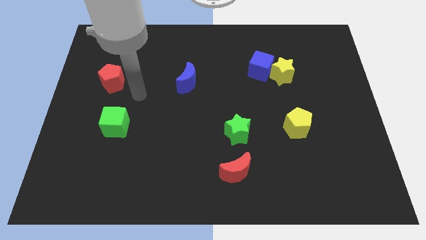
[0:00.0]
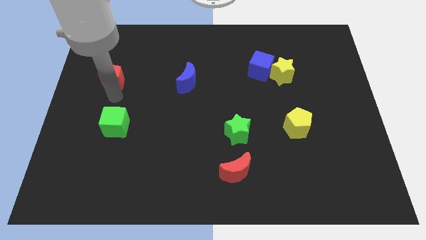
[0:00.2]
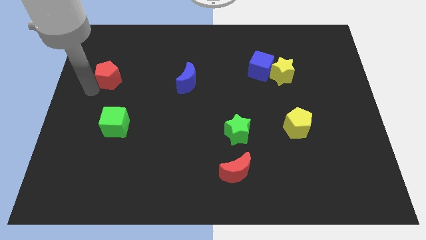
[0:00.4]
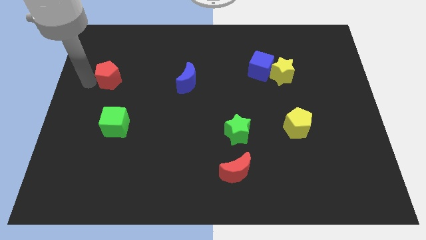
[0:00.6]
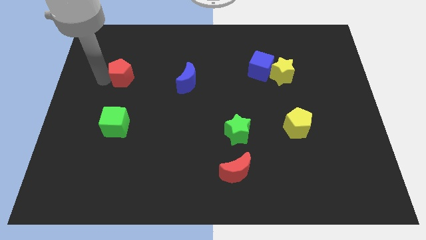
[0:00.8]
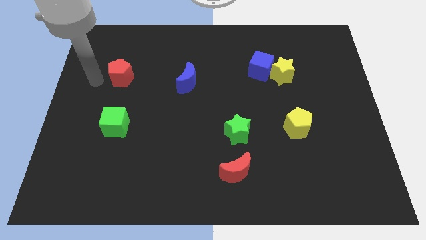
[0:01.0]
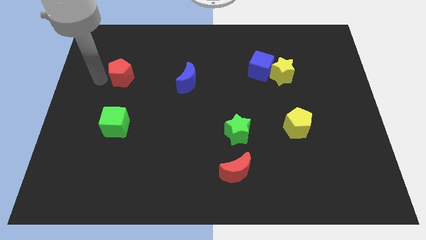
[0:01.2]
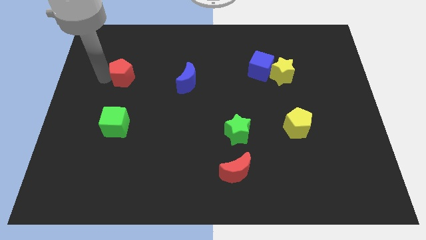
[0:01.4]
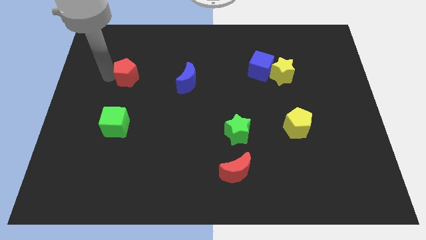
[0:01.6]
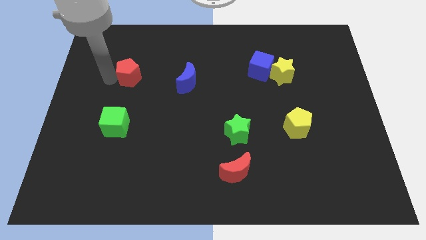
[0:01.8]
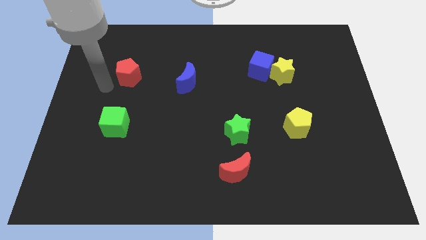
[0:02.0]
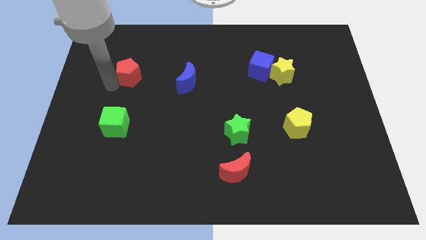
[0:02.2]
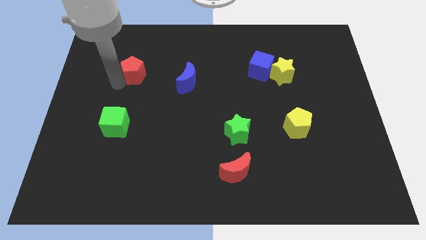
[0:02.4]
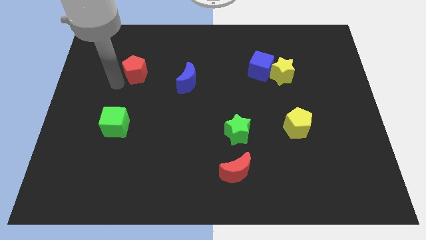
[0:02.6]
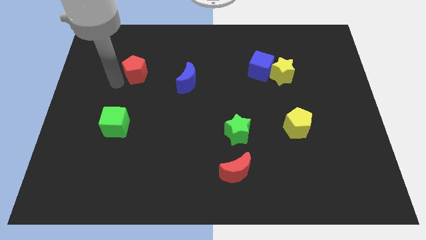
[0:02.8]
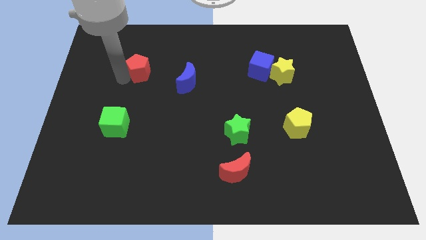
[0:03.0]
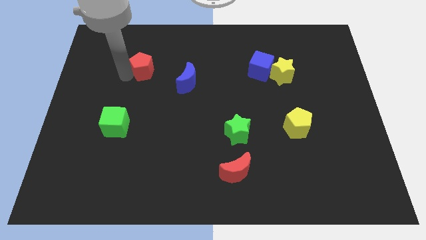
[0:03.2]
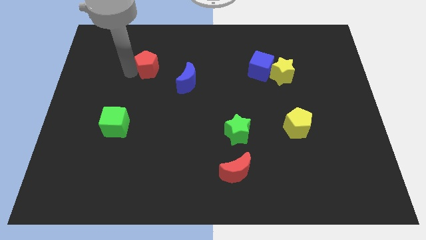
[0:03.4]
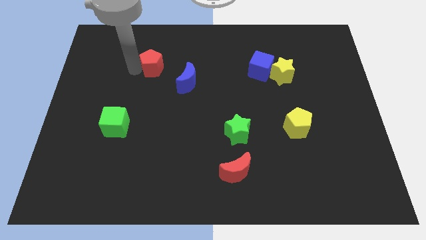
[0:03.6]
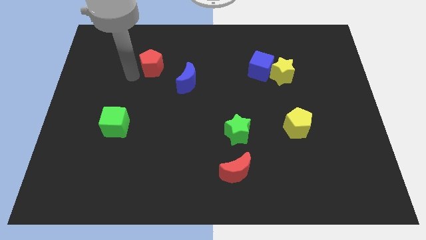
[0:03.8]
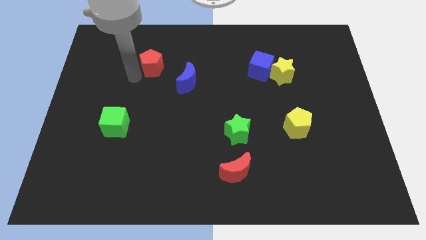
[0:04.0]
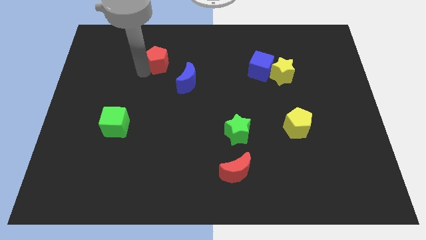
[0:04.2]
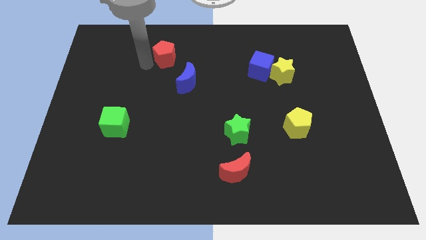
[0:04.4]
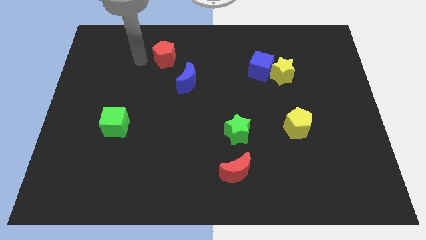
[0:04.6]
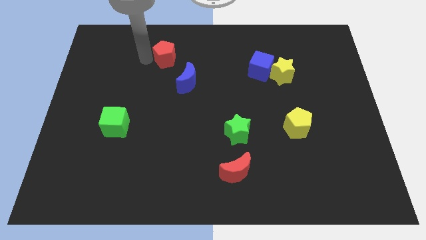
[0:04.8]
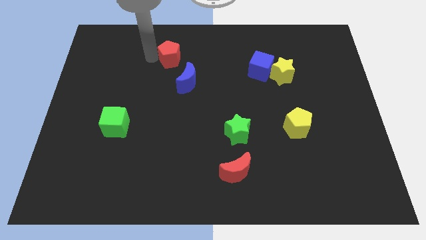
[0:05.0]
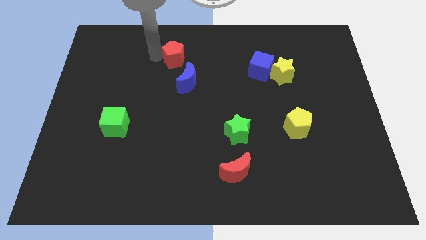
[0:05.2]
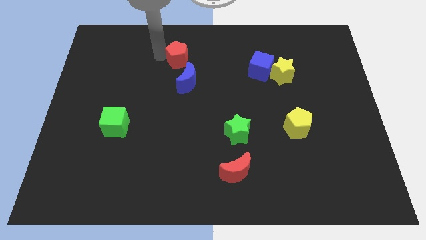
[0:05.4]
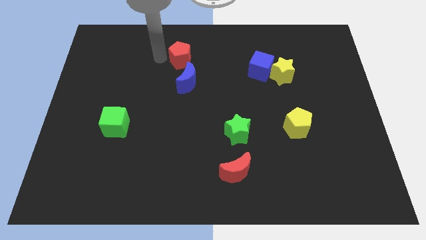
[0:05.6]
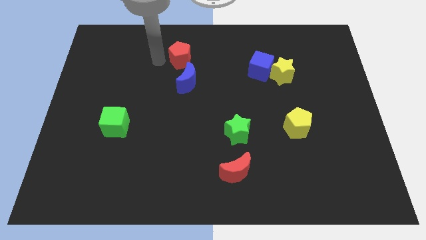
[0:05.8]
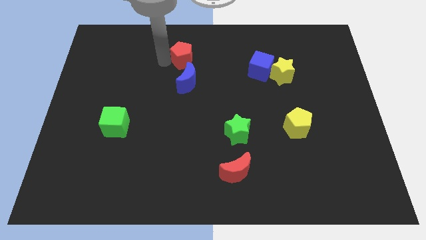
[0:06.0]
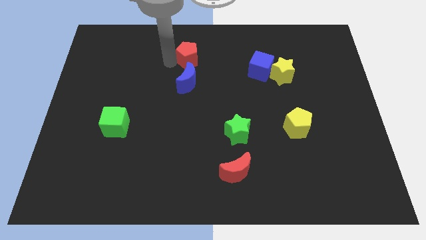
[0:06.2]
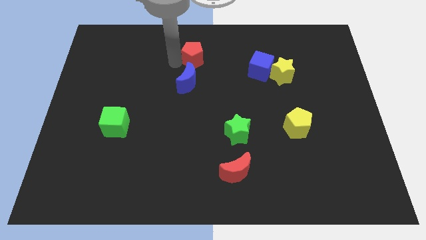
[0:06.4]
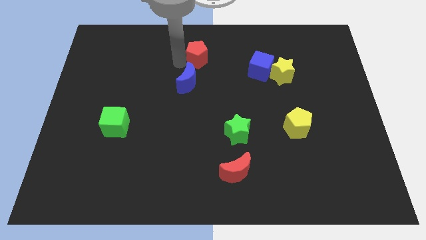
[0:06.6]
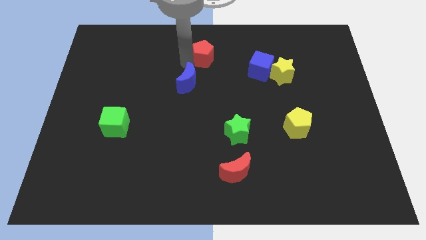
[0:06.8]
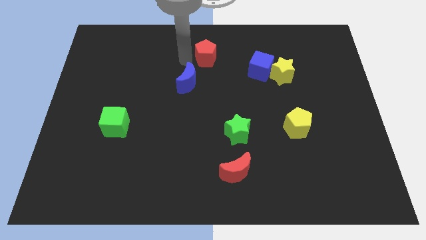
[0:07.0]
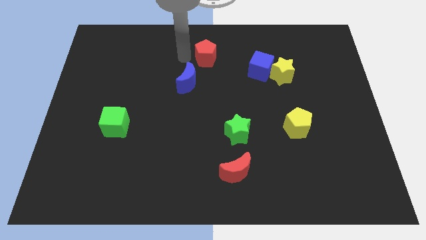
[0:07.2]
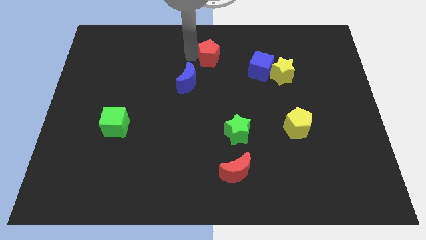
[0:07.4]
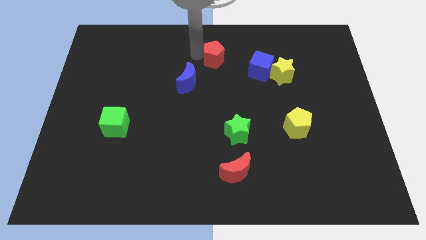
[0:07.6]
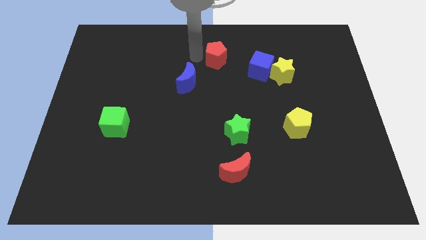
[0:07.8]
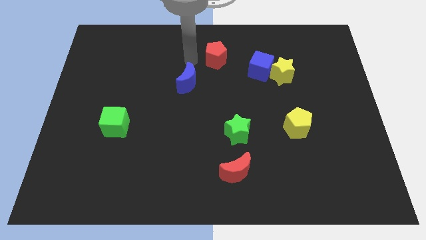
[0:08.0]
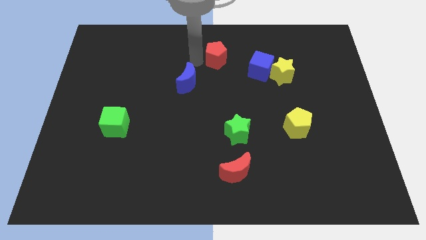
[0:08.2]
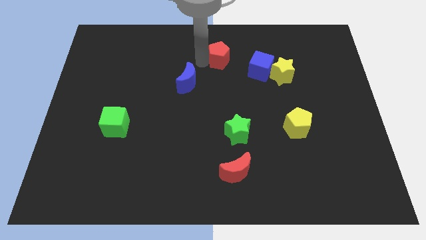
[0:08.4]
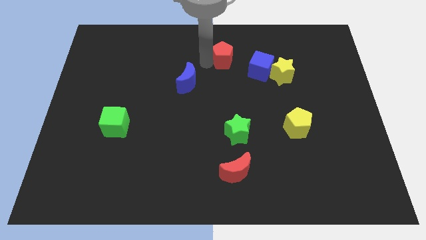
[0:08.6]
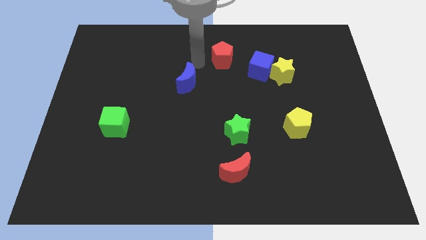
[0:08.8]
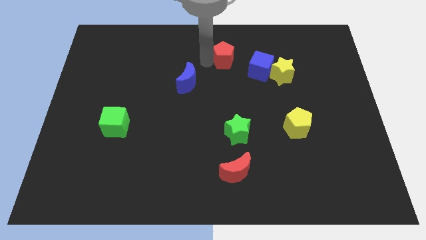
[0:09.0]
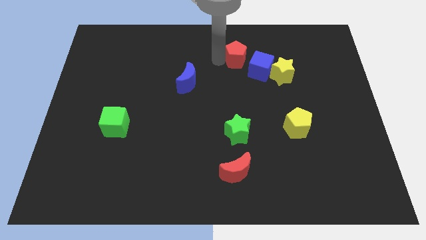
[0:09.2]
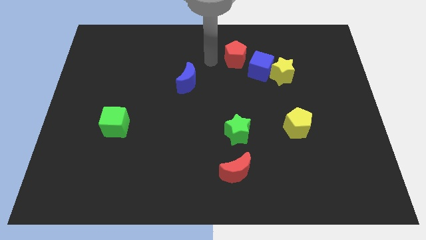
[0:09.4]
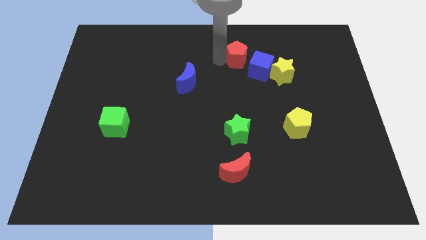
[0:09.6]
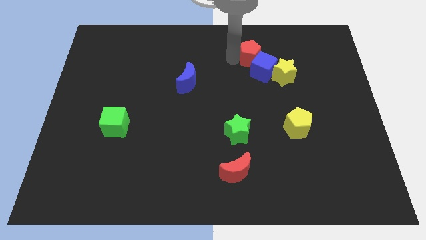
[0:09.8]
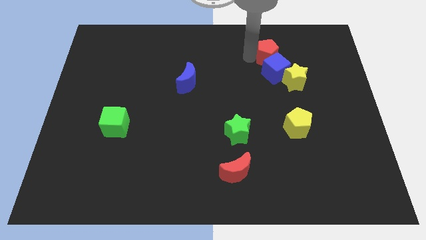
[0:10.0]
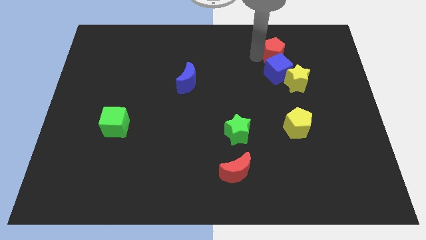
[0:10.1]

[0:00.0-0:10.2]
push the red pentagon diagonally up and to the right of the blue cube

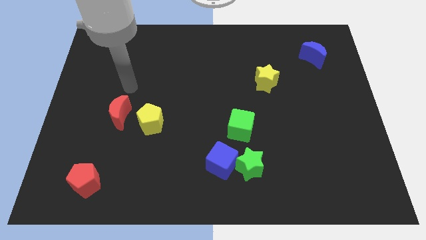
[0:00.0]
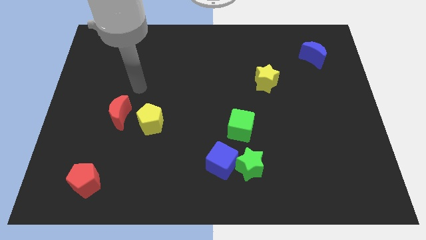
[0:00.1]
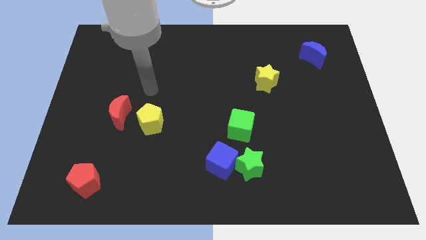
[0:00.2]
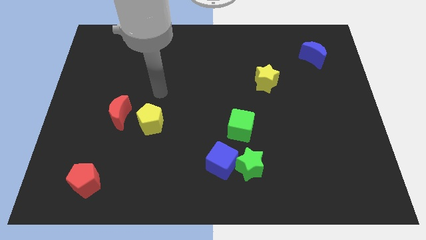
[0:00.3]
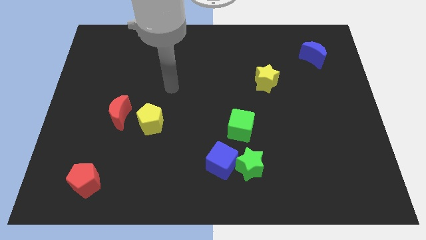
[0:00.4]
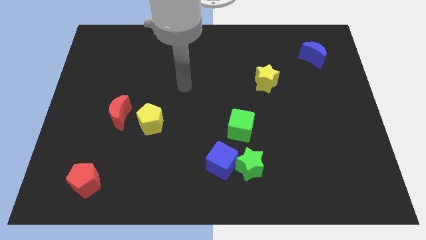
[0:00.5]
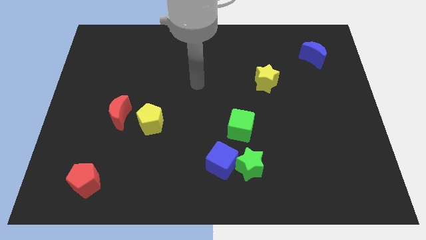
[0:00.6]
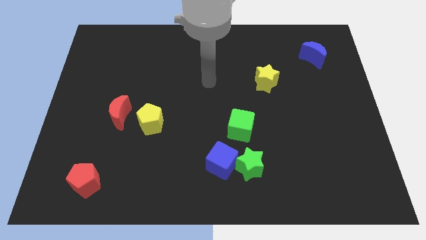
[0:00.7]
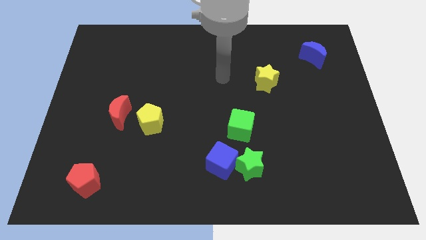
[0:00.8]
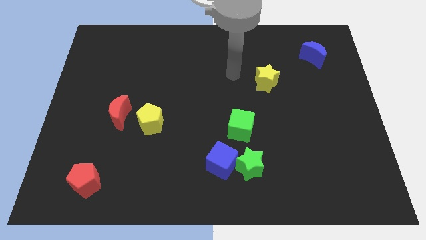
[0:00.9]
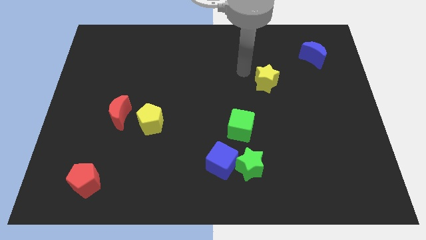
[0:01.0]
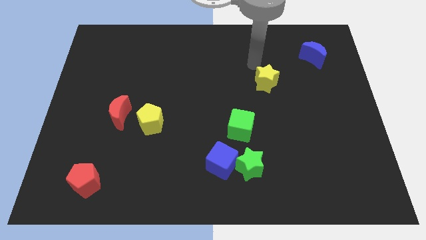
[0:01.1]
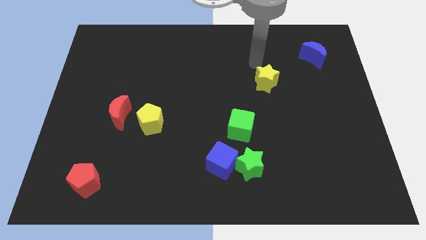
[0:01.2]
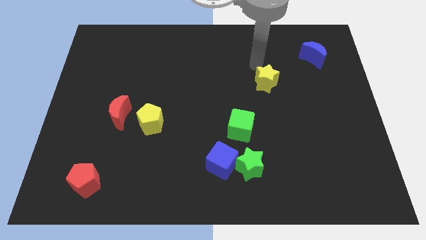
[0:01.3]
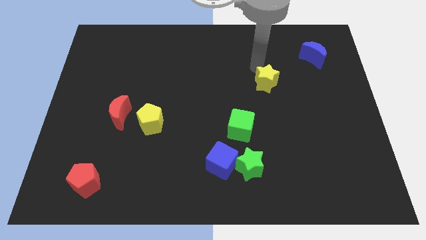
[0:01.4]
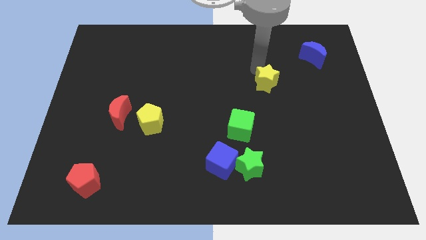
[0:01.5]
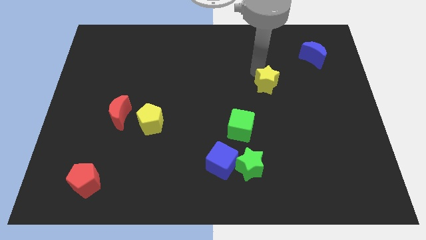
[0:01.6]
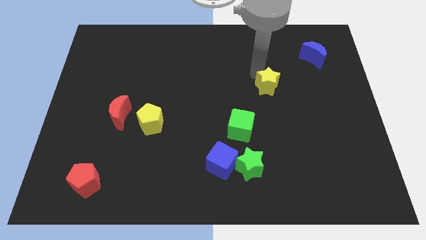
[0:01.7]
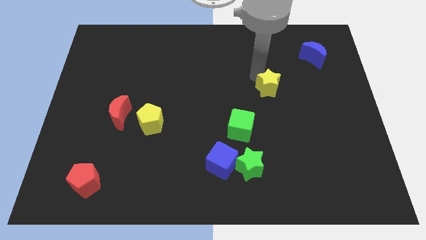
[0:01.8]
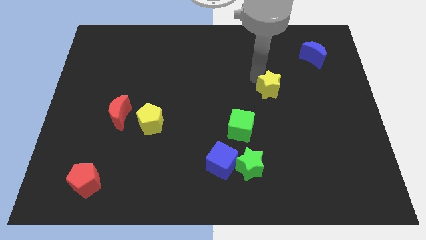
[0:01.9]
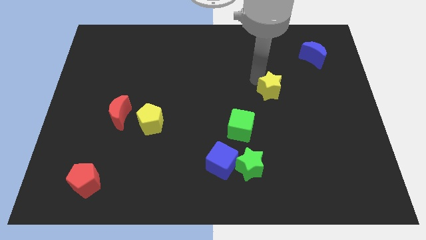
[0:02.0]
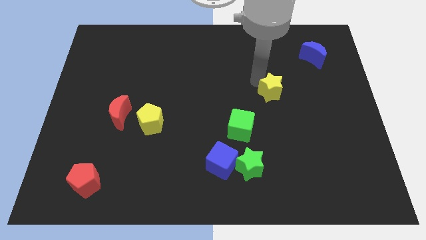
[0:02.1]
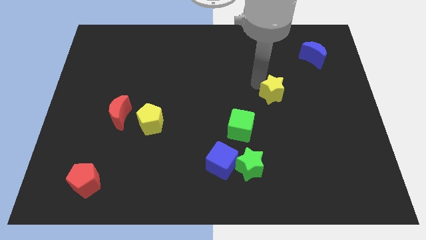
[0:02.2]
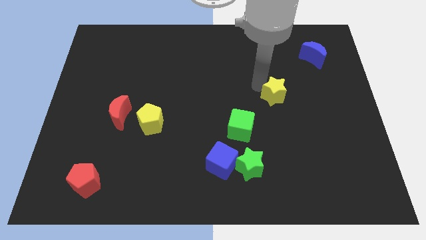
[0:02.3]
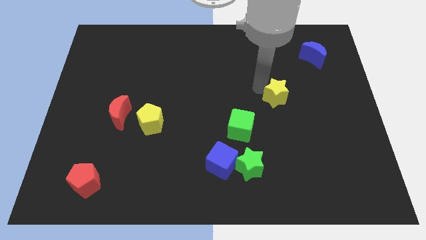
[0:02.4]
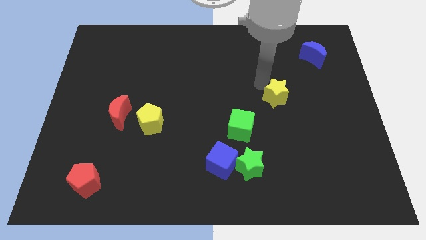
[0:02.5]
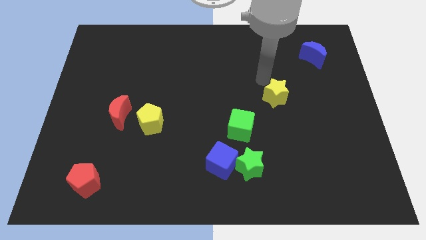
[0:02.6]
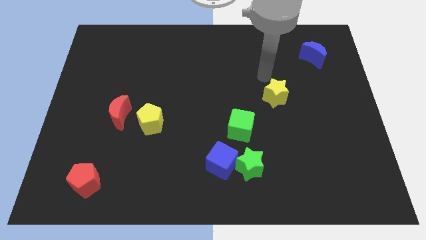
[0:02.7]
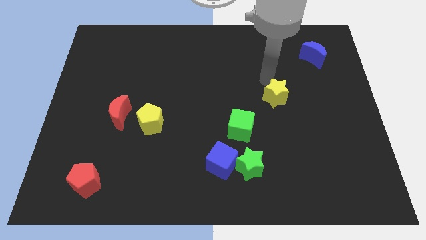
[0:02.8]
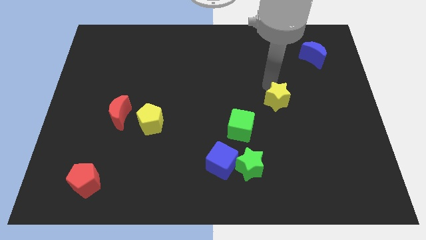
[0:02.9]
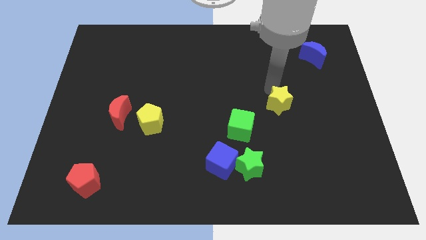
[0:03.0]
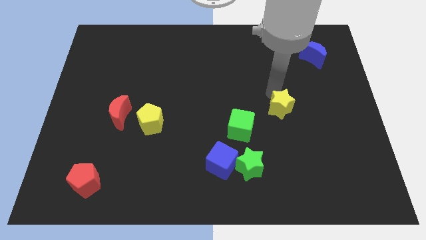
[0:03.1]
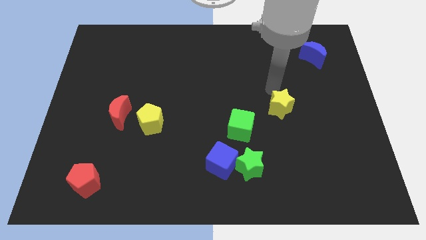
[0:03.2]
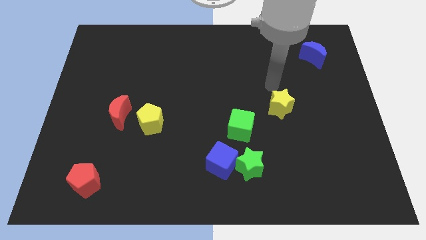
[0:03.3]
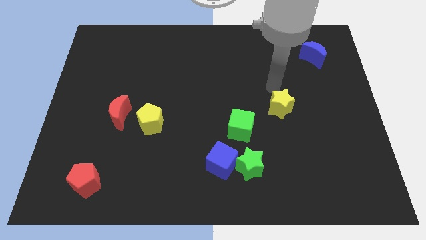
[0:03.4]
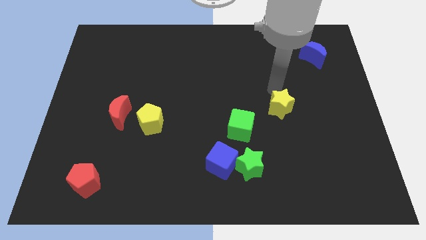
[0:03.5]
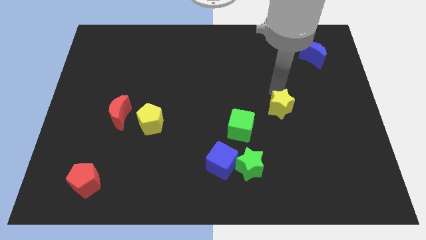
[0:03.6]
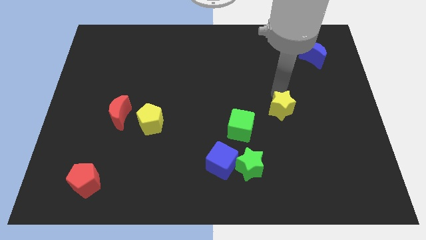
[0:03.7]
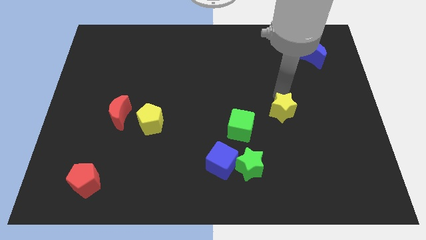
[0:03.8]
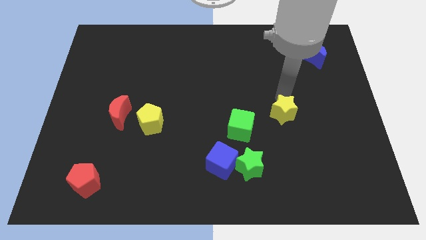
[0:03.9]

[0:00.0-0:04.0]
push the yellow star just right of the green cube
